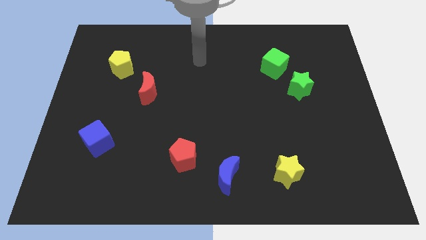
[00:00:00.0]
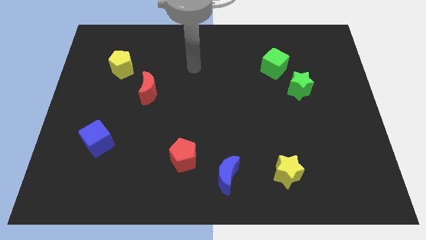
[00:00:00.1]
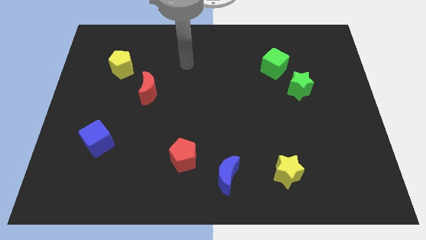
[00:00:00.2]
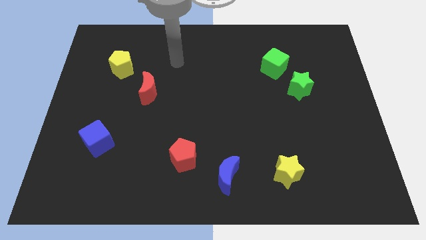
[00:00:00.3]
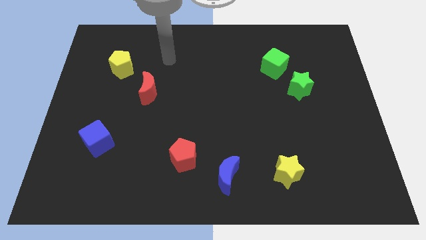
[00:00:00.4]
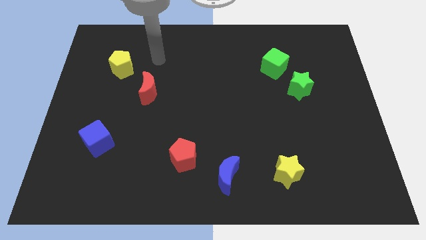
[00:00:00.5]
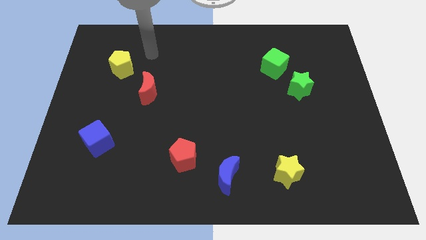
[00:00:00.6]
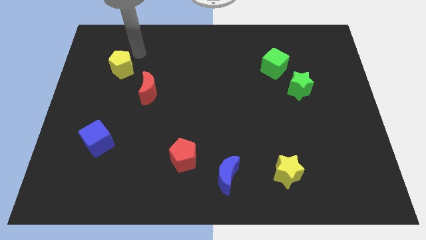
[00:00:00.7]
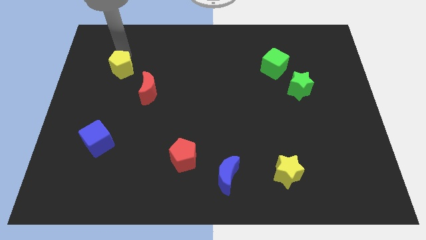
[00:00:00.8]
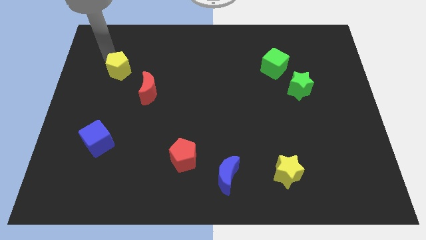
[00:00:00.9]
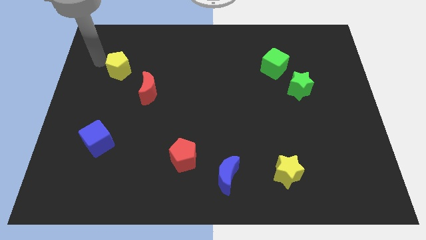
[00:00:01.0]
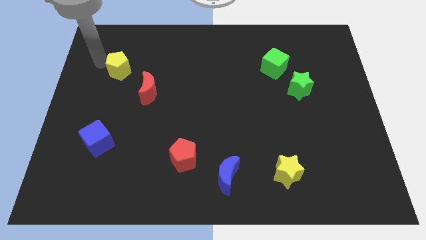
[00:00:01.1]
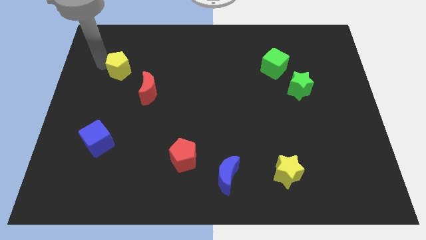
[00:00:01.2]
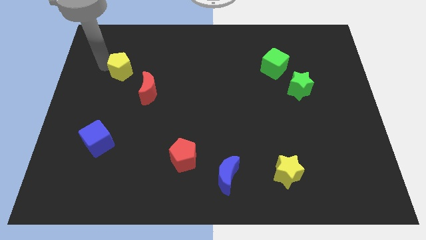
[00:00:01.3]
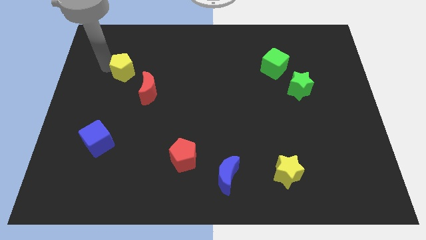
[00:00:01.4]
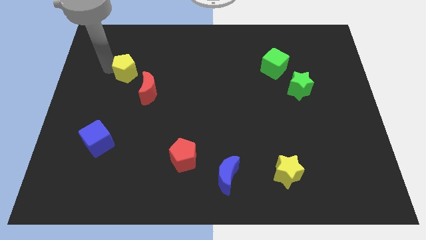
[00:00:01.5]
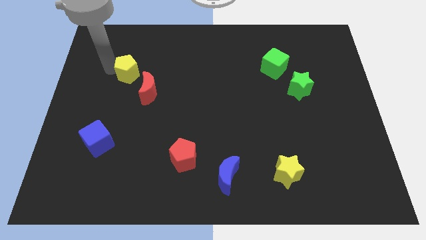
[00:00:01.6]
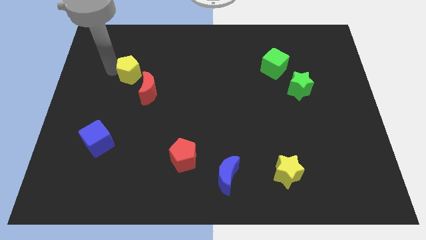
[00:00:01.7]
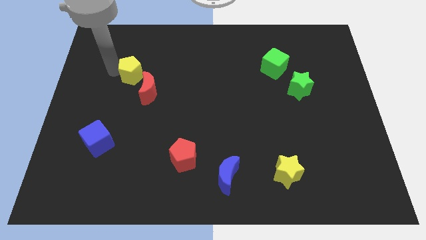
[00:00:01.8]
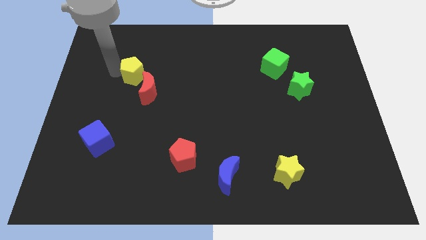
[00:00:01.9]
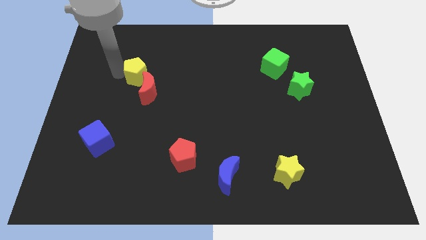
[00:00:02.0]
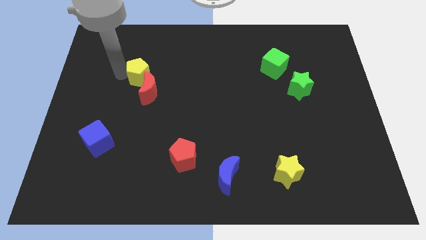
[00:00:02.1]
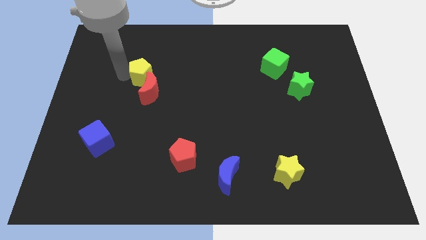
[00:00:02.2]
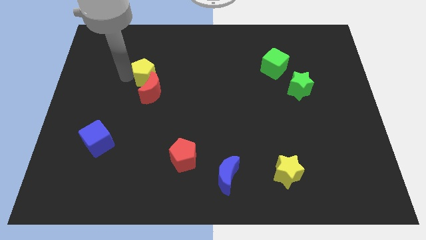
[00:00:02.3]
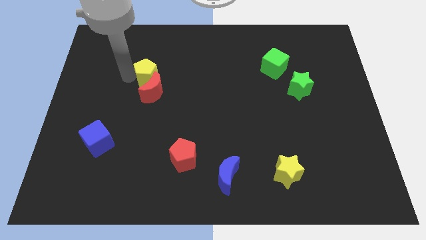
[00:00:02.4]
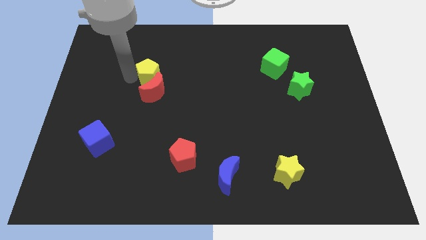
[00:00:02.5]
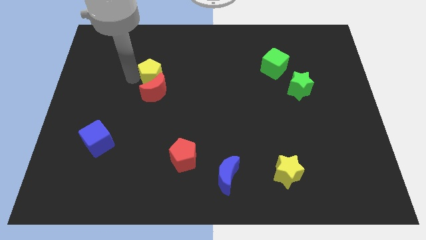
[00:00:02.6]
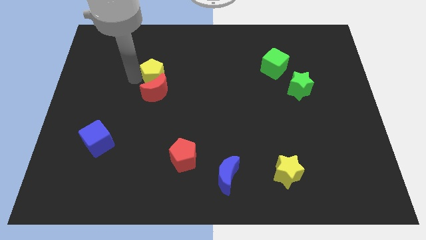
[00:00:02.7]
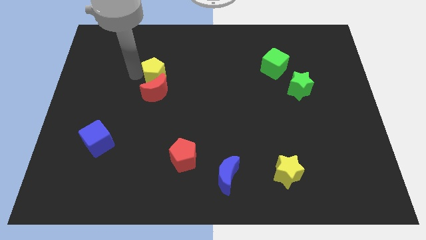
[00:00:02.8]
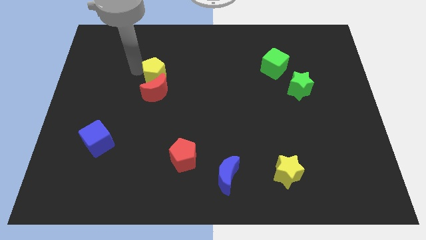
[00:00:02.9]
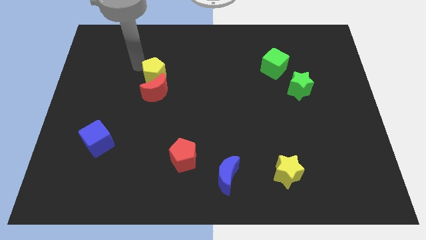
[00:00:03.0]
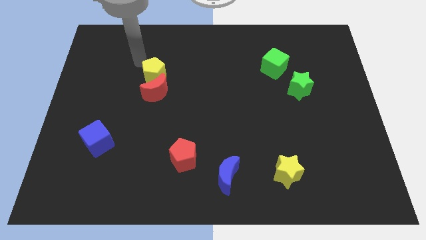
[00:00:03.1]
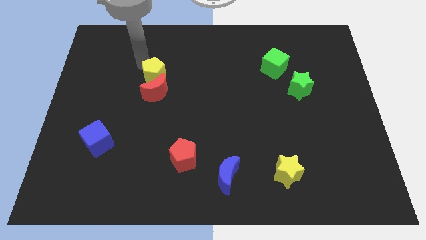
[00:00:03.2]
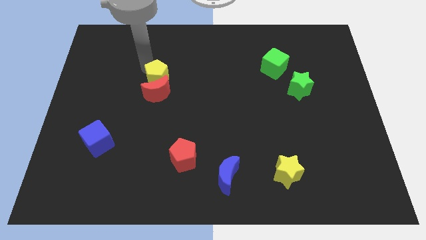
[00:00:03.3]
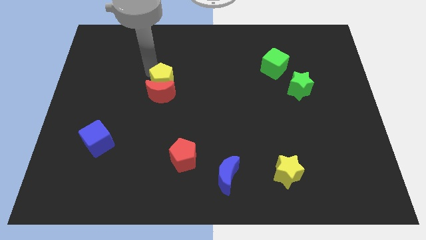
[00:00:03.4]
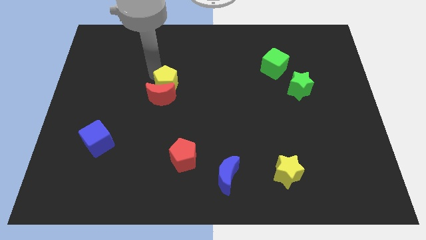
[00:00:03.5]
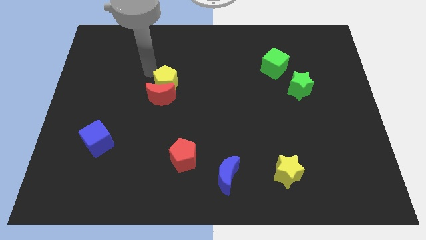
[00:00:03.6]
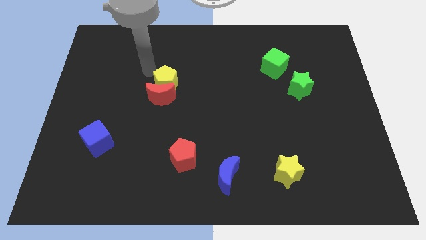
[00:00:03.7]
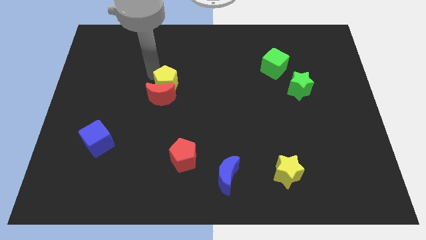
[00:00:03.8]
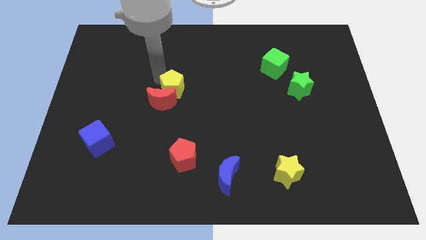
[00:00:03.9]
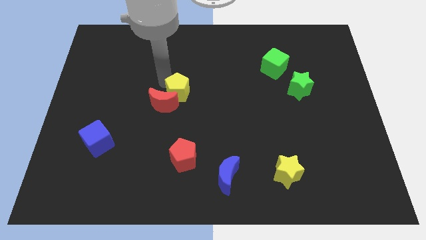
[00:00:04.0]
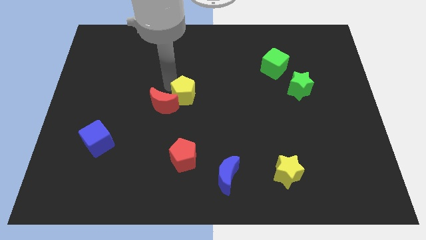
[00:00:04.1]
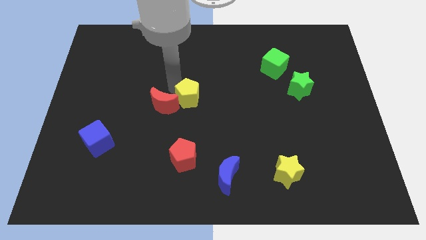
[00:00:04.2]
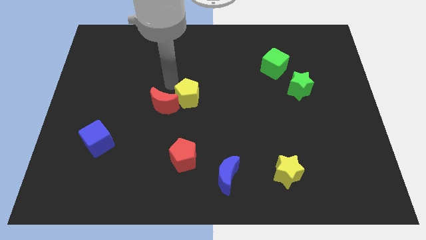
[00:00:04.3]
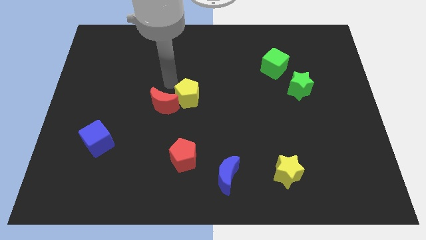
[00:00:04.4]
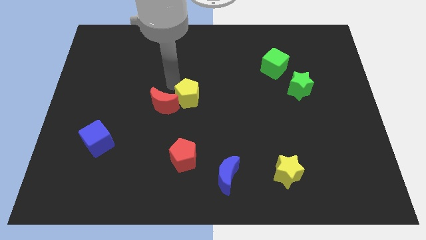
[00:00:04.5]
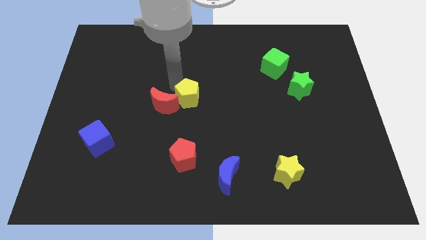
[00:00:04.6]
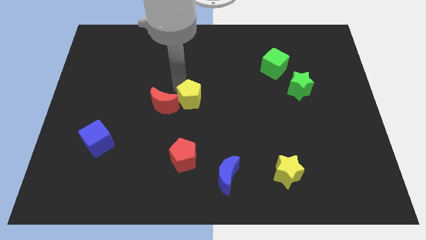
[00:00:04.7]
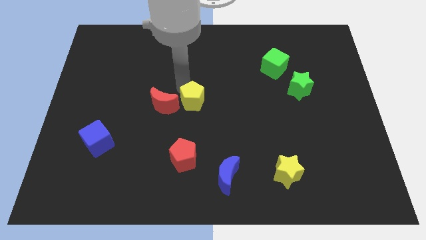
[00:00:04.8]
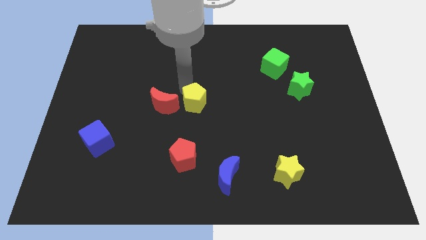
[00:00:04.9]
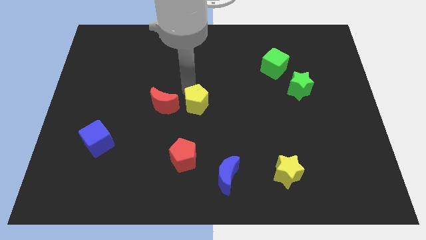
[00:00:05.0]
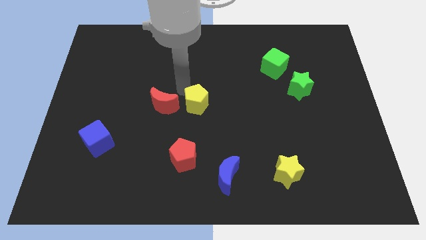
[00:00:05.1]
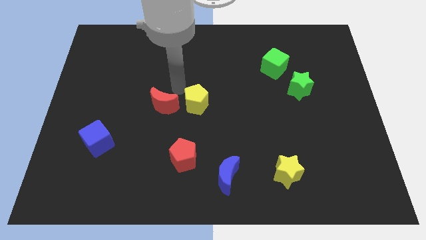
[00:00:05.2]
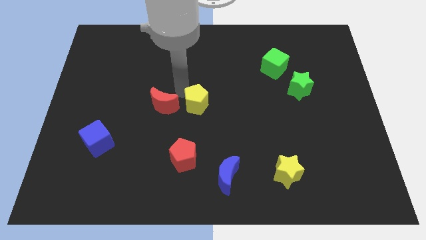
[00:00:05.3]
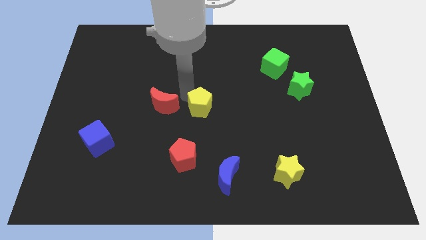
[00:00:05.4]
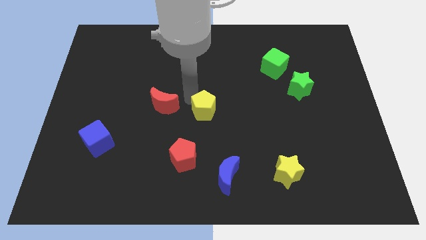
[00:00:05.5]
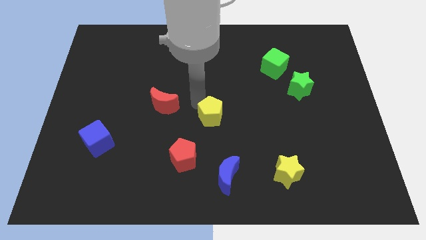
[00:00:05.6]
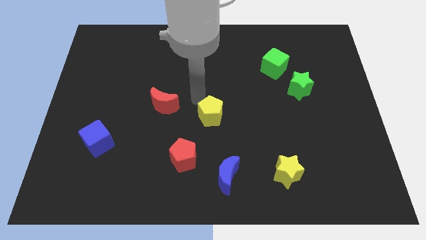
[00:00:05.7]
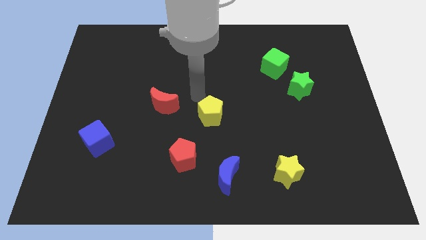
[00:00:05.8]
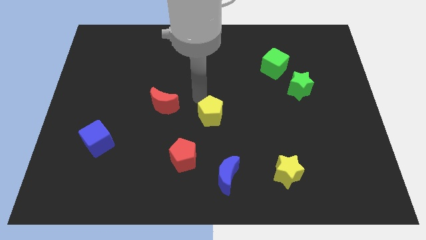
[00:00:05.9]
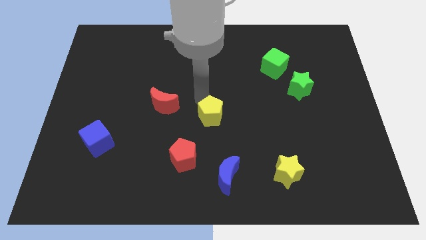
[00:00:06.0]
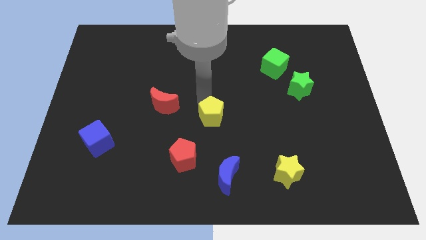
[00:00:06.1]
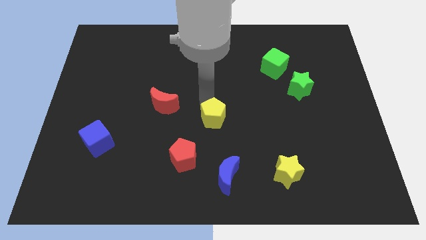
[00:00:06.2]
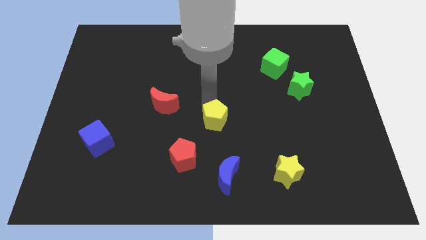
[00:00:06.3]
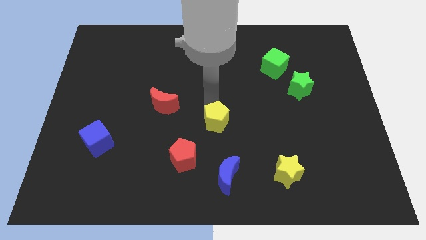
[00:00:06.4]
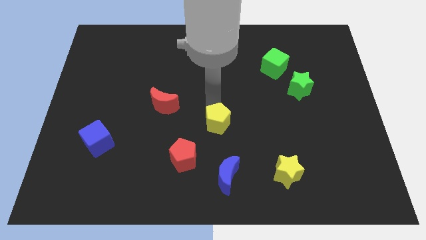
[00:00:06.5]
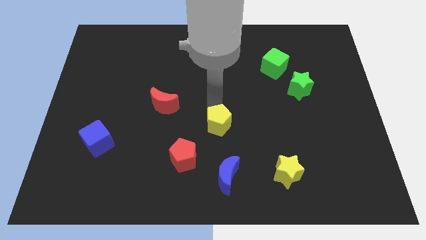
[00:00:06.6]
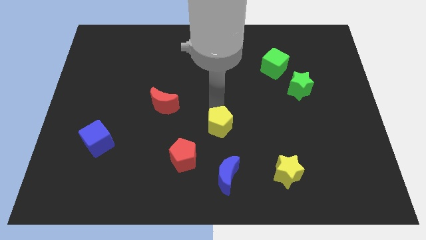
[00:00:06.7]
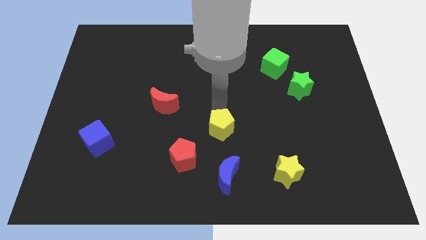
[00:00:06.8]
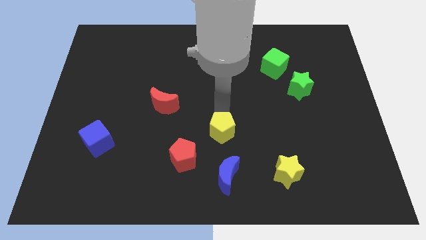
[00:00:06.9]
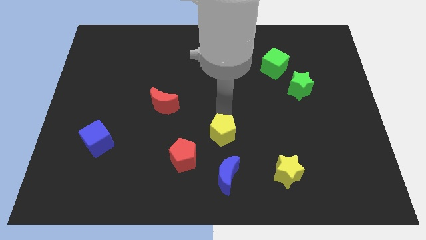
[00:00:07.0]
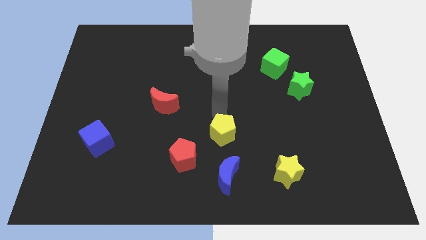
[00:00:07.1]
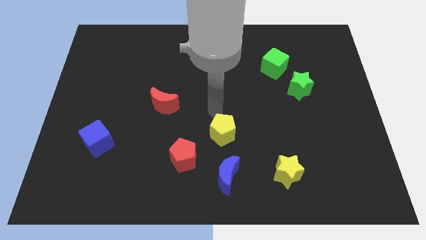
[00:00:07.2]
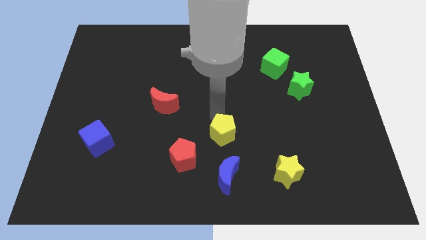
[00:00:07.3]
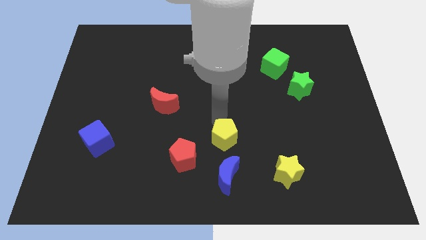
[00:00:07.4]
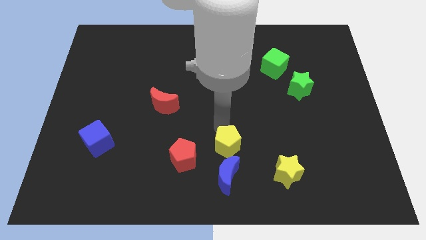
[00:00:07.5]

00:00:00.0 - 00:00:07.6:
put the yellow pentagon to the right of the red pentagon
